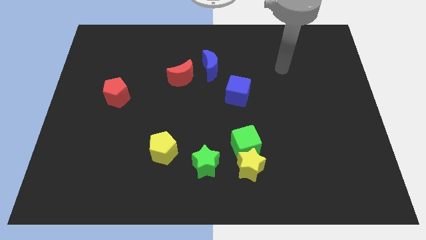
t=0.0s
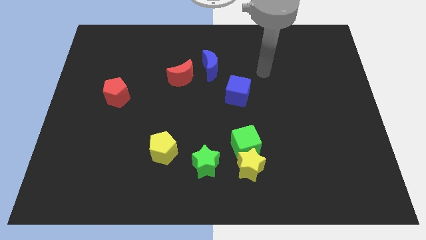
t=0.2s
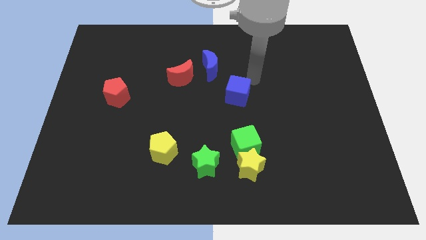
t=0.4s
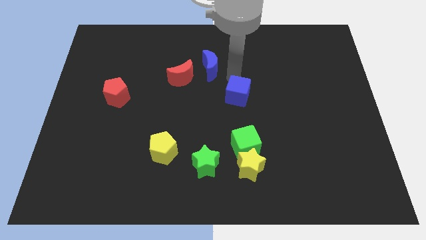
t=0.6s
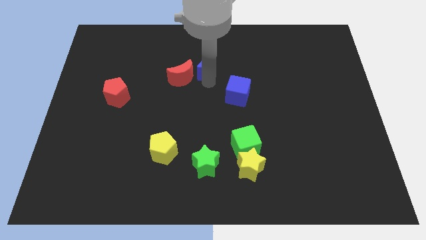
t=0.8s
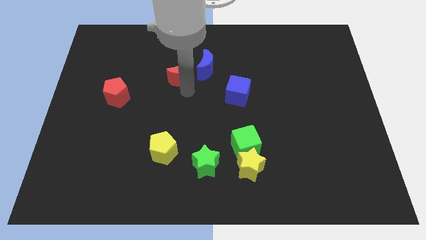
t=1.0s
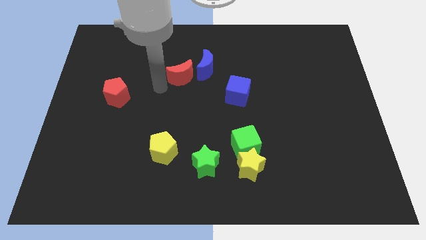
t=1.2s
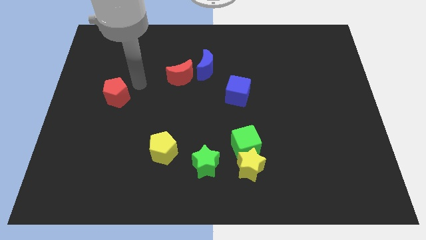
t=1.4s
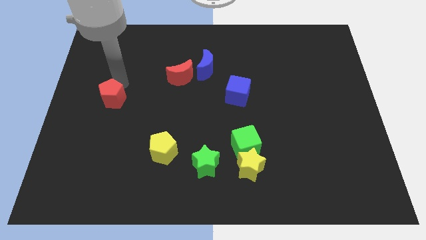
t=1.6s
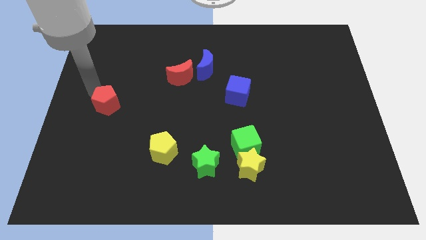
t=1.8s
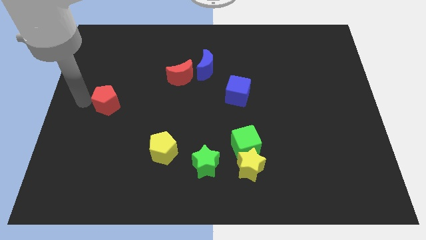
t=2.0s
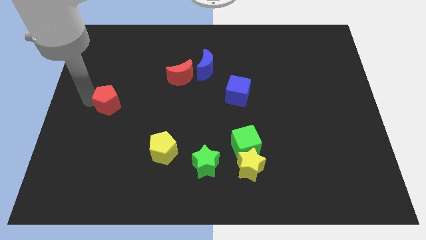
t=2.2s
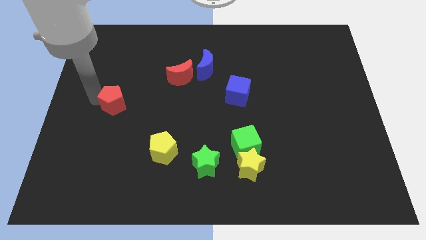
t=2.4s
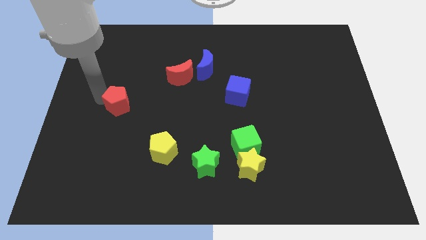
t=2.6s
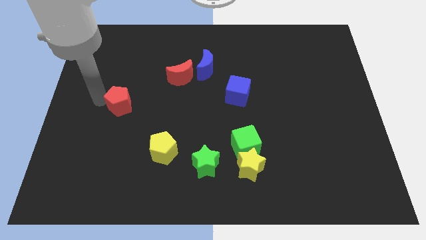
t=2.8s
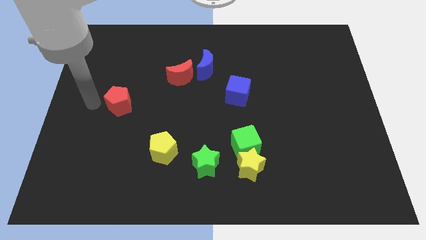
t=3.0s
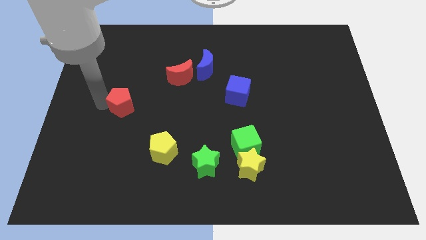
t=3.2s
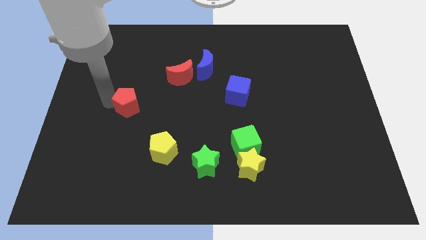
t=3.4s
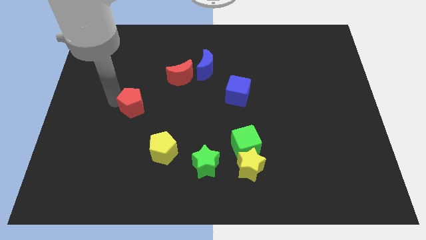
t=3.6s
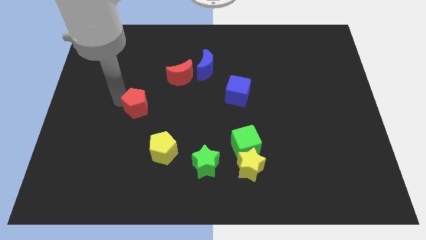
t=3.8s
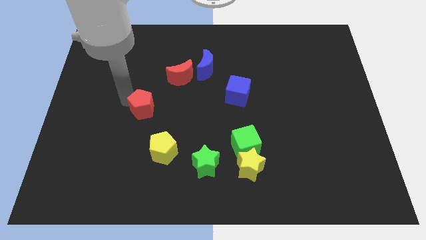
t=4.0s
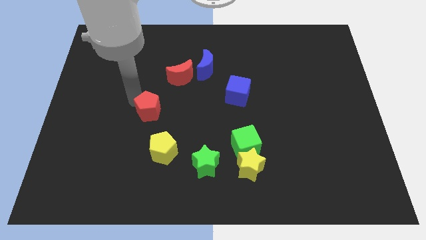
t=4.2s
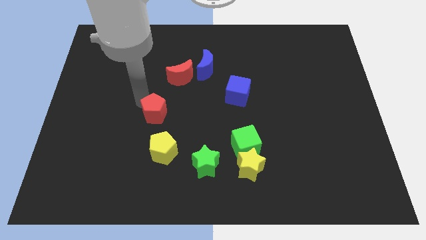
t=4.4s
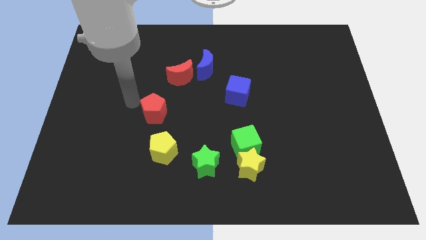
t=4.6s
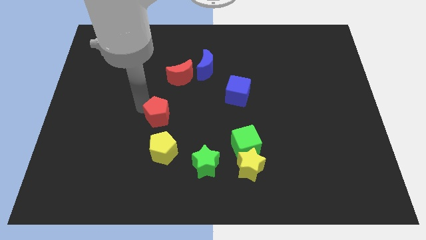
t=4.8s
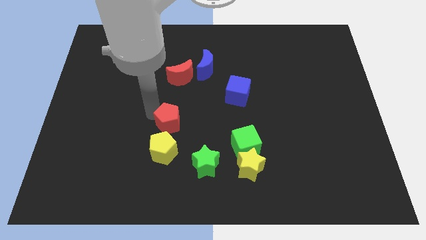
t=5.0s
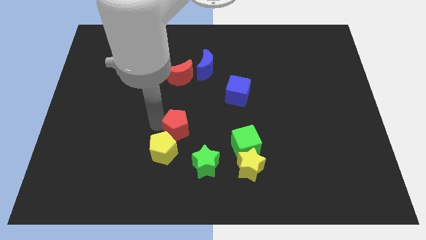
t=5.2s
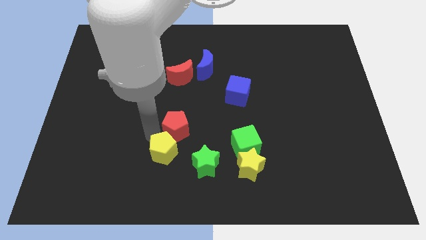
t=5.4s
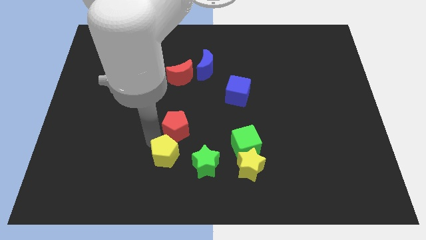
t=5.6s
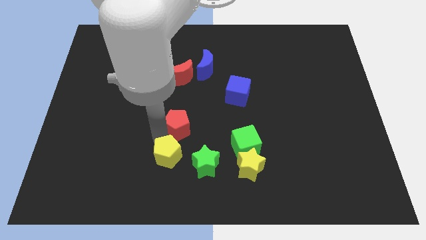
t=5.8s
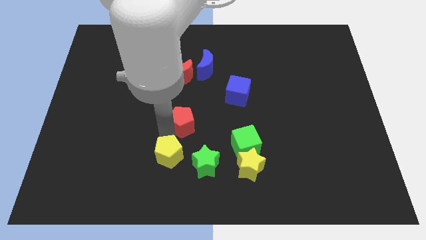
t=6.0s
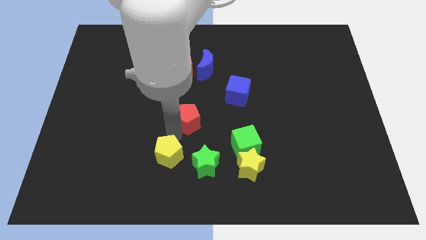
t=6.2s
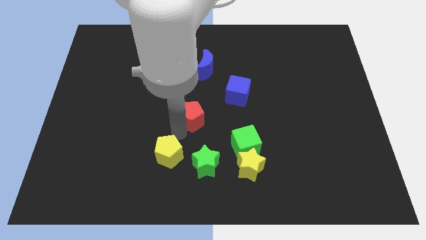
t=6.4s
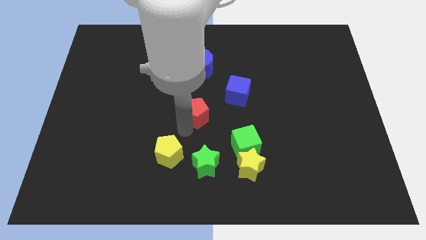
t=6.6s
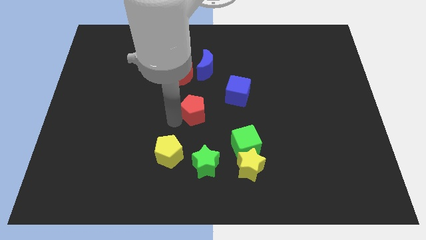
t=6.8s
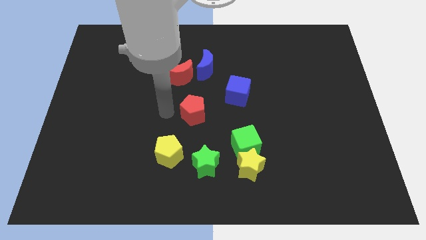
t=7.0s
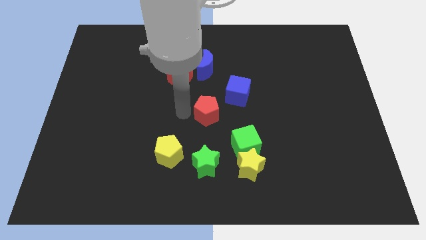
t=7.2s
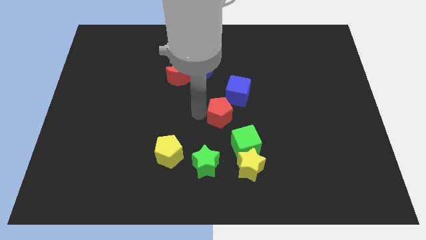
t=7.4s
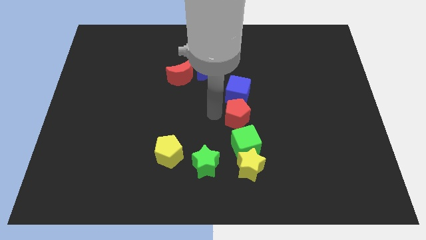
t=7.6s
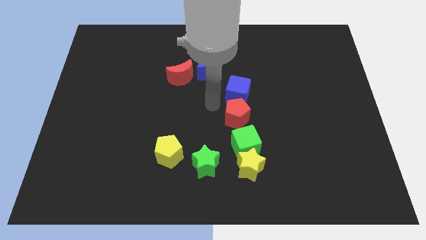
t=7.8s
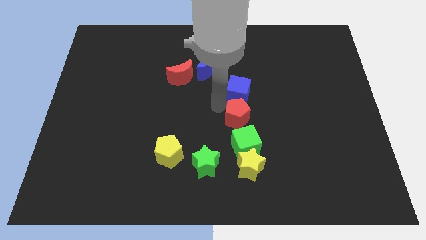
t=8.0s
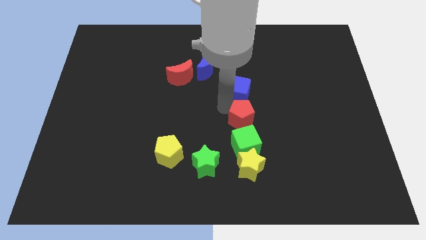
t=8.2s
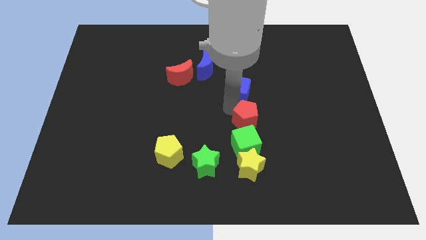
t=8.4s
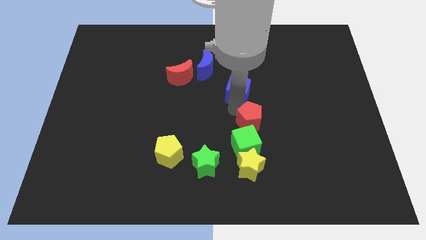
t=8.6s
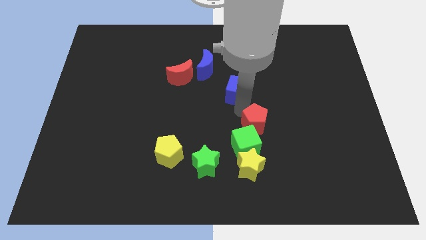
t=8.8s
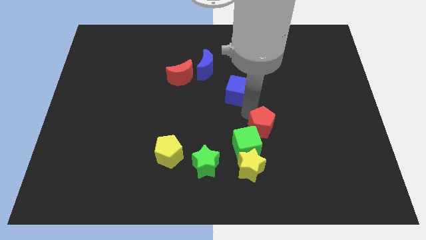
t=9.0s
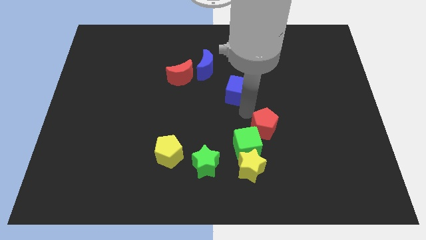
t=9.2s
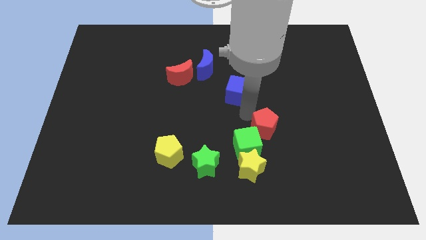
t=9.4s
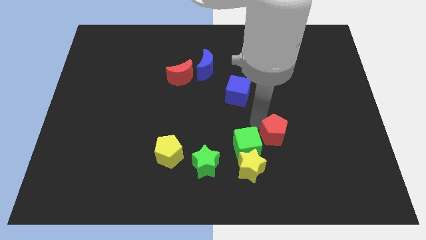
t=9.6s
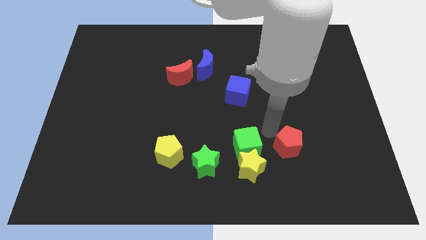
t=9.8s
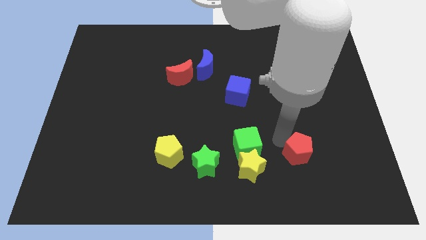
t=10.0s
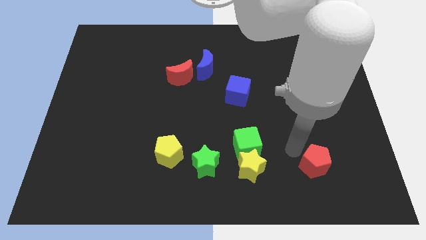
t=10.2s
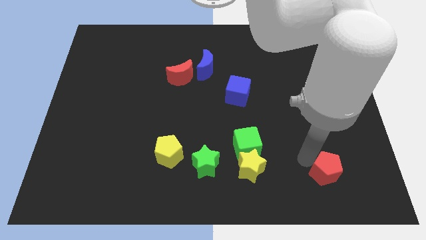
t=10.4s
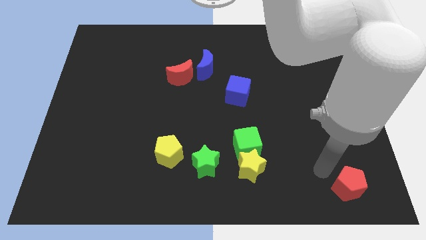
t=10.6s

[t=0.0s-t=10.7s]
push the red pentagon to the bottom right of the board

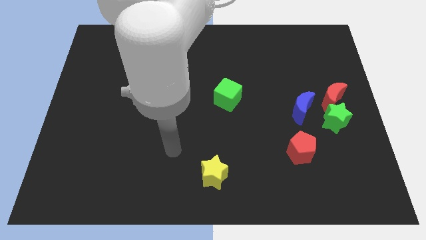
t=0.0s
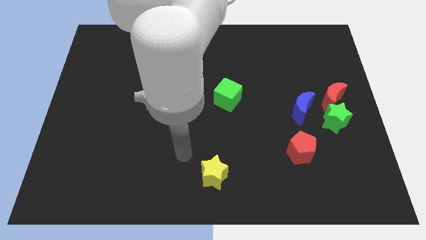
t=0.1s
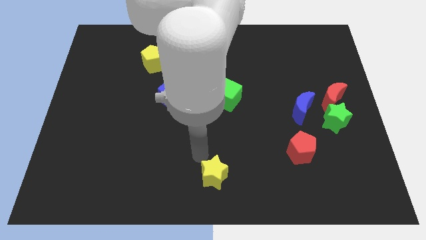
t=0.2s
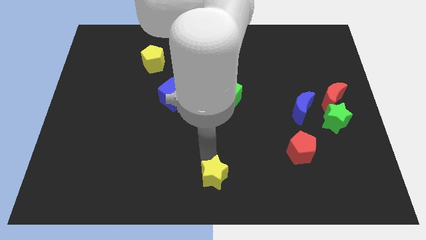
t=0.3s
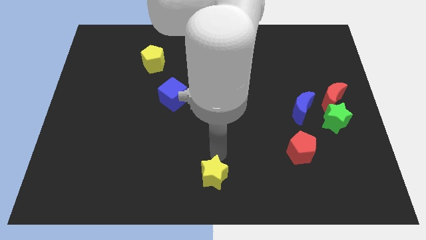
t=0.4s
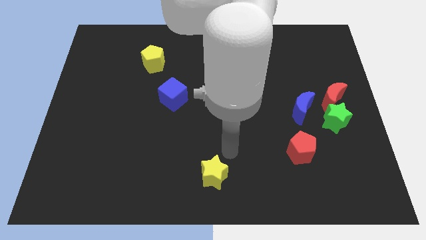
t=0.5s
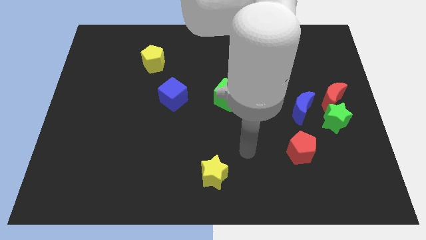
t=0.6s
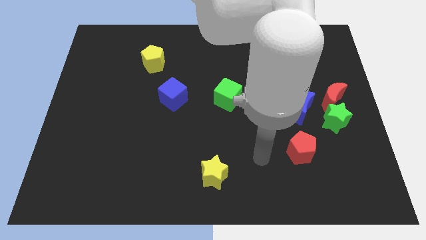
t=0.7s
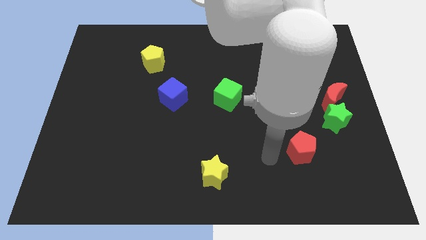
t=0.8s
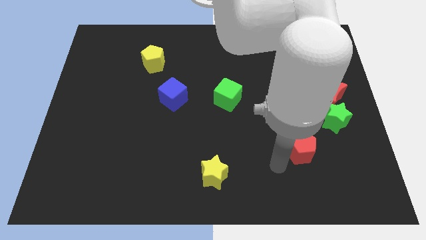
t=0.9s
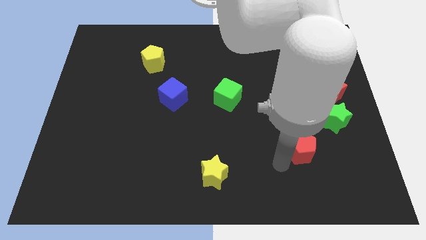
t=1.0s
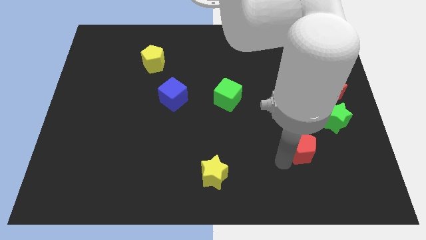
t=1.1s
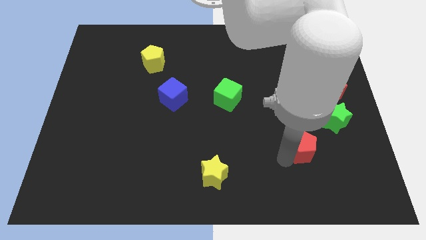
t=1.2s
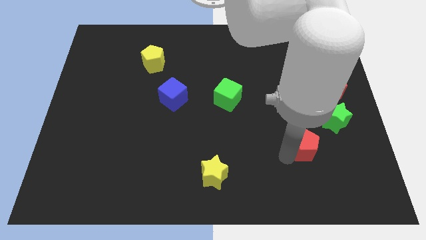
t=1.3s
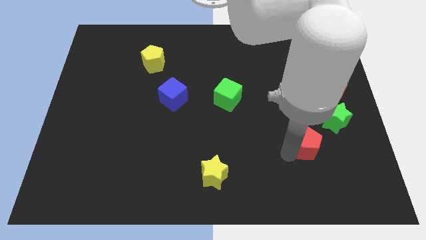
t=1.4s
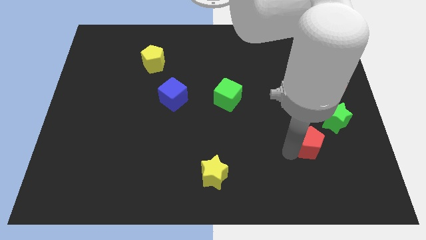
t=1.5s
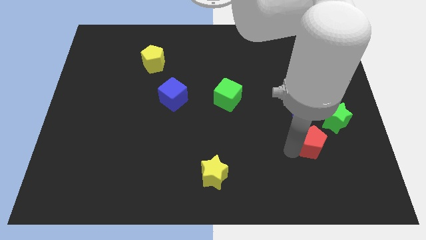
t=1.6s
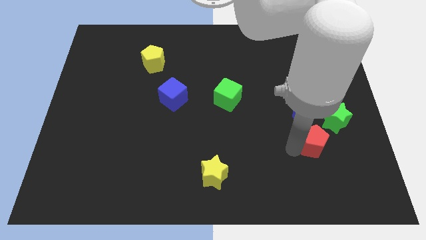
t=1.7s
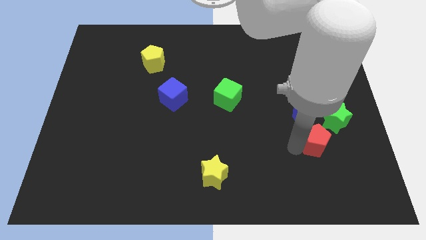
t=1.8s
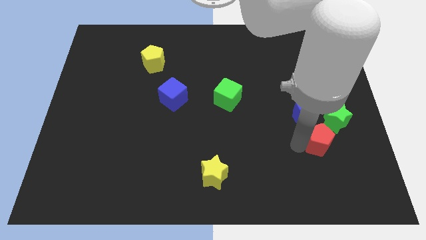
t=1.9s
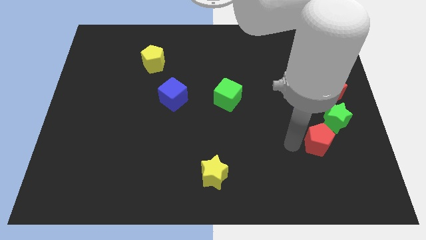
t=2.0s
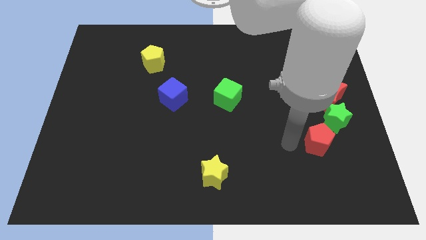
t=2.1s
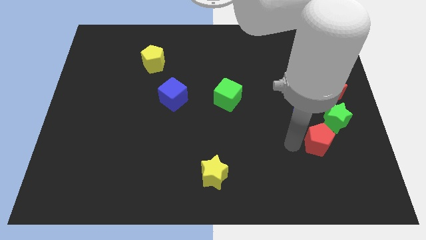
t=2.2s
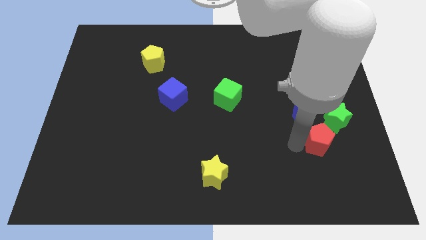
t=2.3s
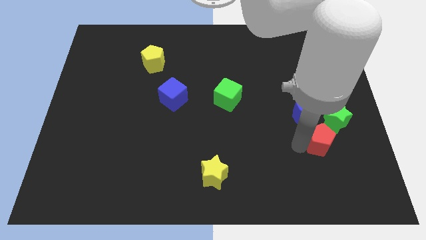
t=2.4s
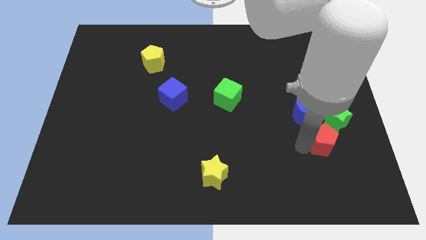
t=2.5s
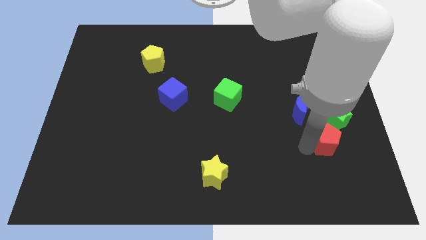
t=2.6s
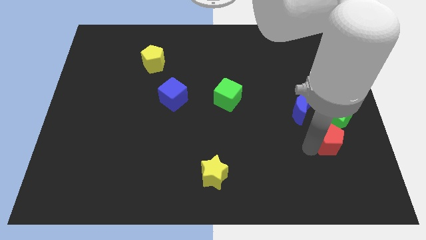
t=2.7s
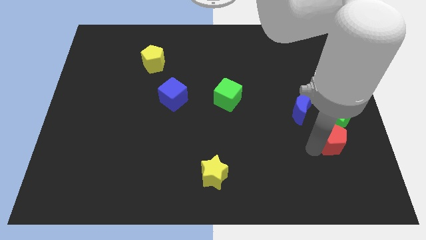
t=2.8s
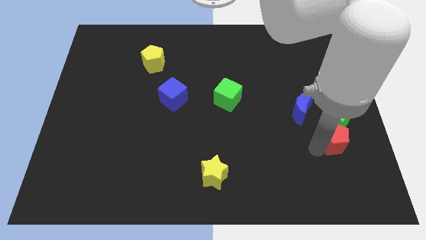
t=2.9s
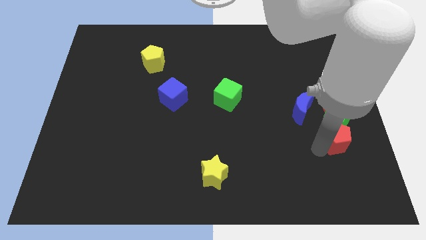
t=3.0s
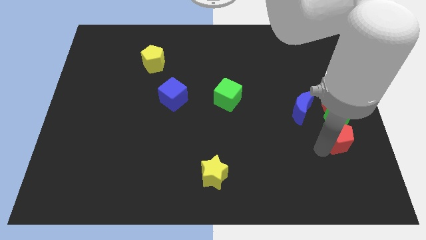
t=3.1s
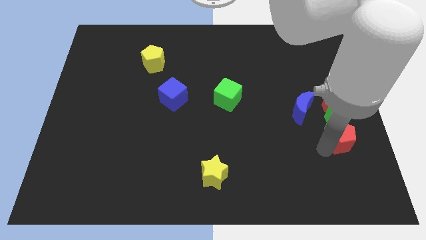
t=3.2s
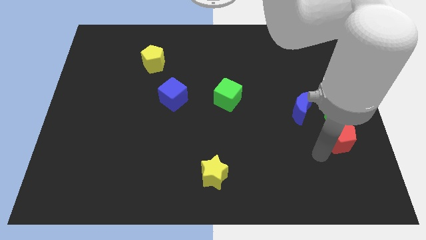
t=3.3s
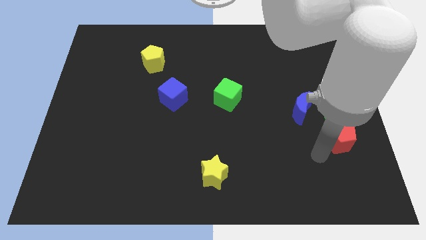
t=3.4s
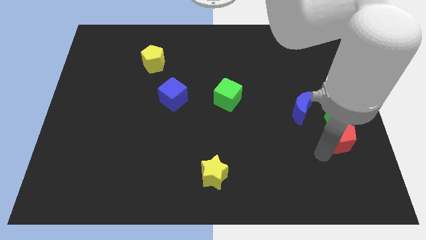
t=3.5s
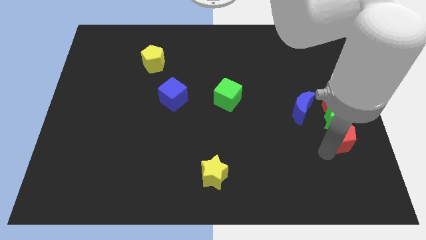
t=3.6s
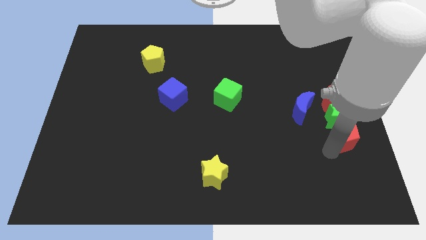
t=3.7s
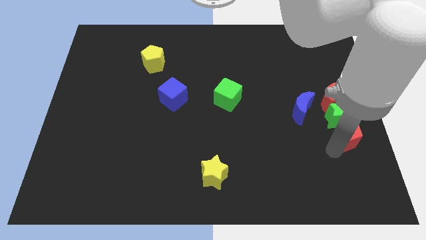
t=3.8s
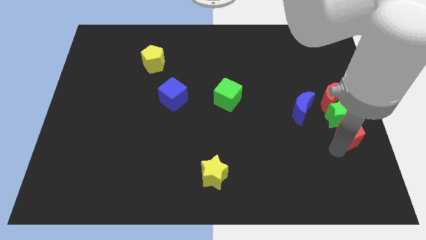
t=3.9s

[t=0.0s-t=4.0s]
push the red pentagon to the right side
